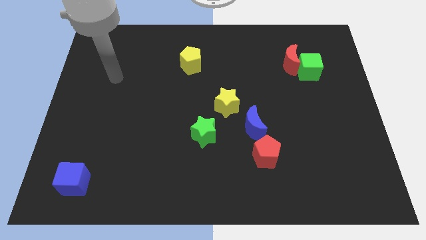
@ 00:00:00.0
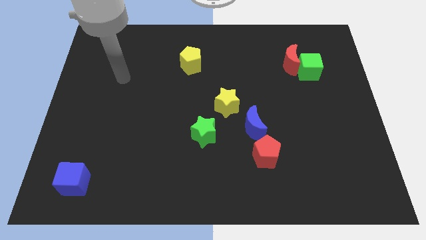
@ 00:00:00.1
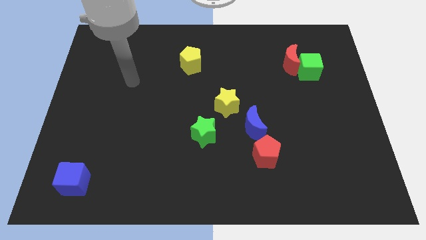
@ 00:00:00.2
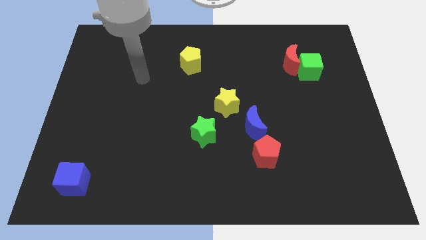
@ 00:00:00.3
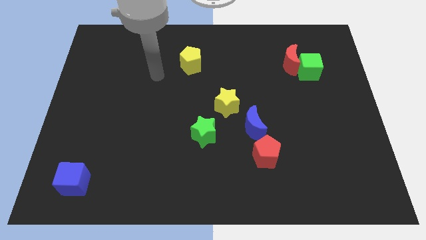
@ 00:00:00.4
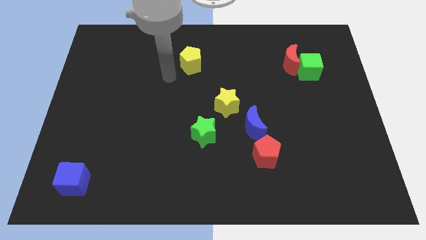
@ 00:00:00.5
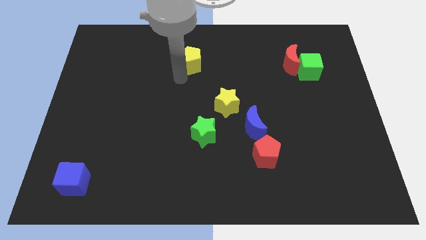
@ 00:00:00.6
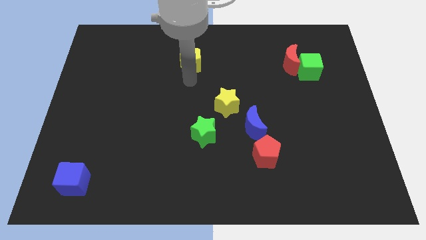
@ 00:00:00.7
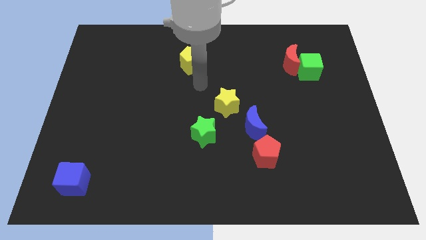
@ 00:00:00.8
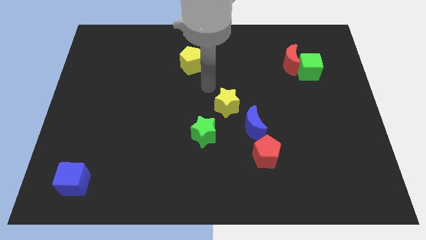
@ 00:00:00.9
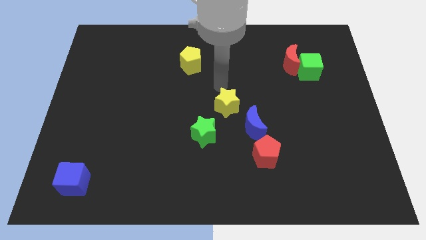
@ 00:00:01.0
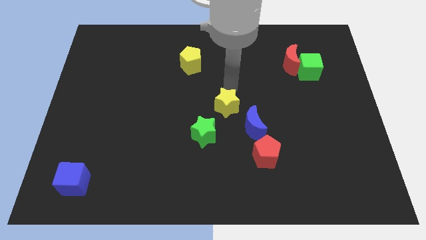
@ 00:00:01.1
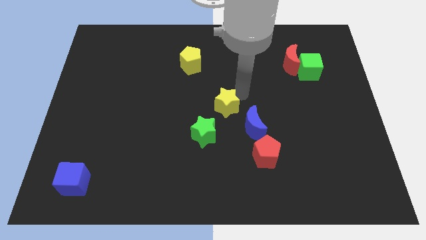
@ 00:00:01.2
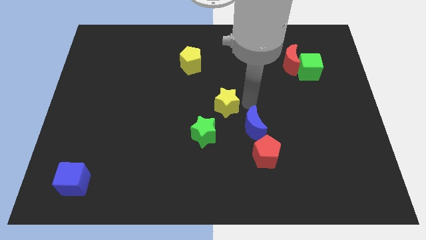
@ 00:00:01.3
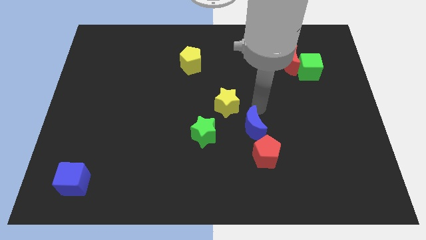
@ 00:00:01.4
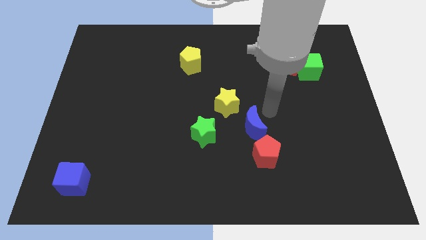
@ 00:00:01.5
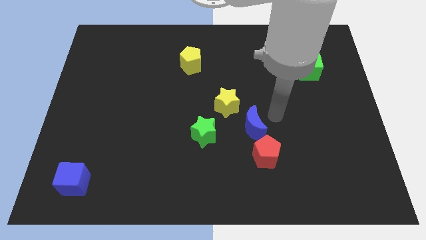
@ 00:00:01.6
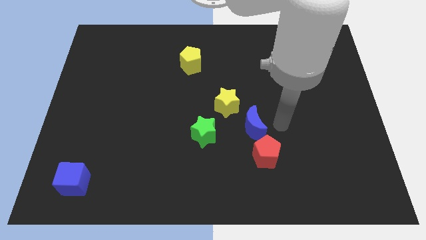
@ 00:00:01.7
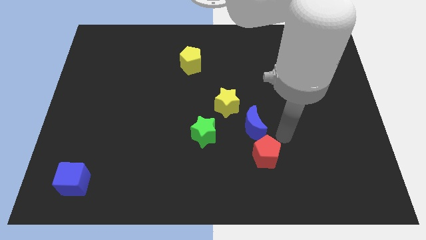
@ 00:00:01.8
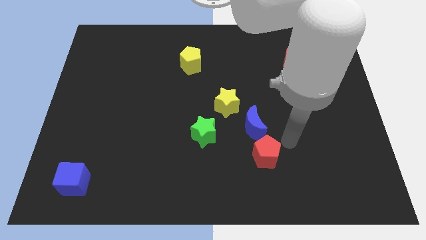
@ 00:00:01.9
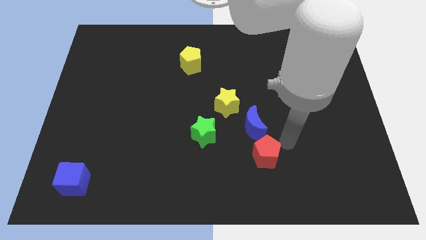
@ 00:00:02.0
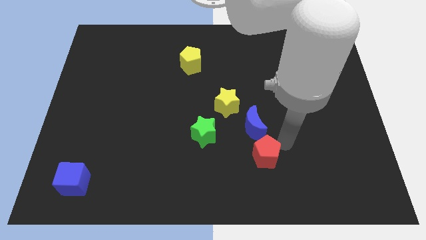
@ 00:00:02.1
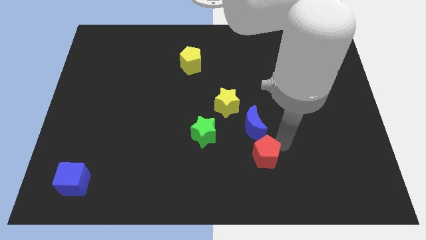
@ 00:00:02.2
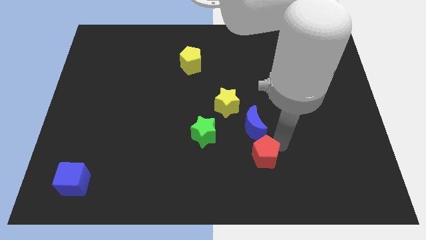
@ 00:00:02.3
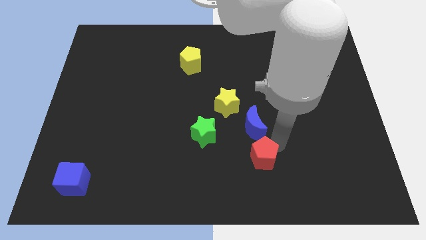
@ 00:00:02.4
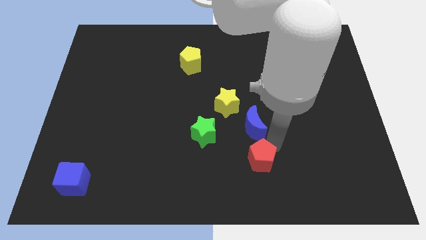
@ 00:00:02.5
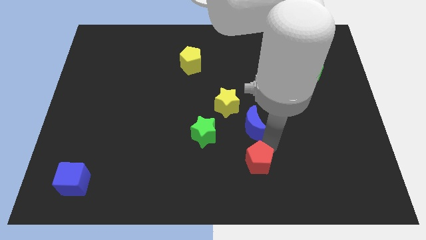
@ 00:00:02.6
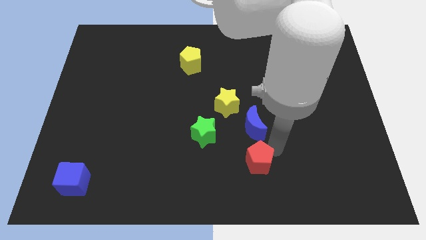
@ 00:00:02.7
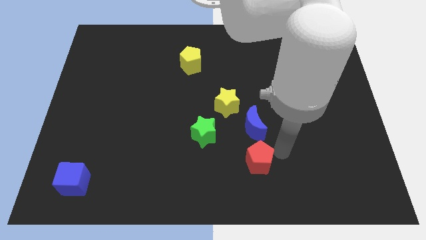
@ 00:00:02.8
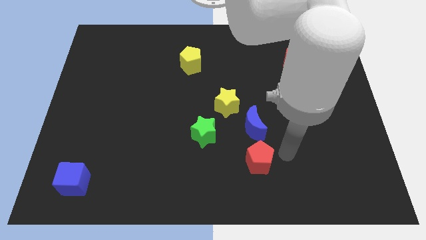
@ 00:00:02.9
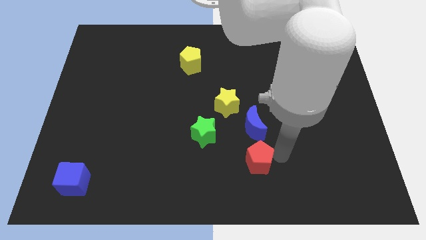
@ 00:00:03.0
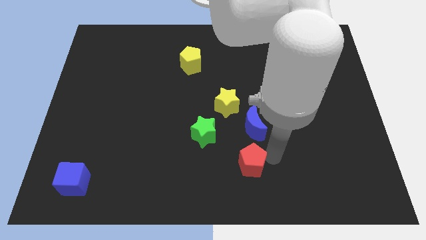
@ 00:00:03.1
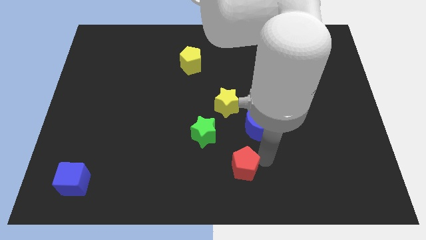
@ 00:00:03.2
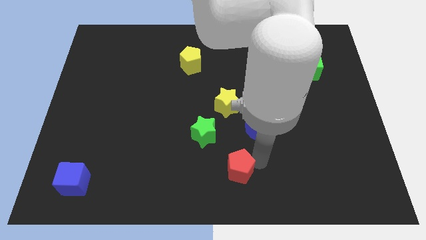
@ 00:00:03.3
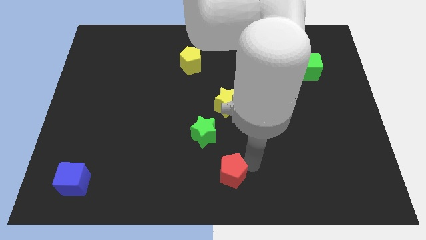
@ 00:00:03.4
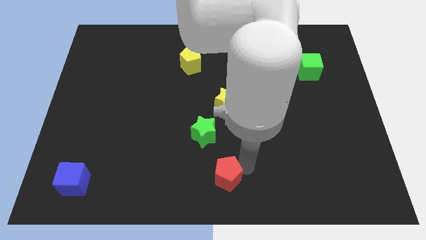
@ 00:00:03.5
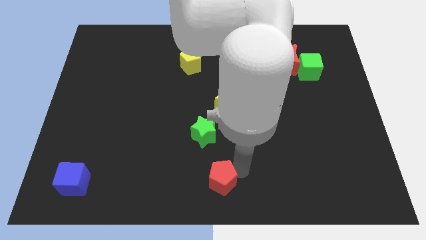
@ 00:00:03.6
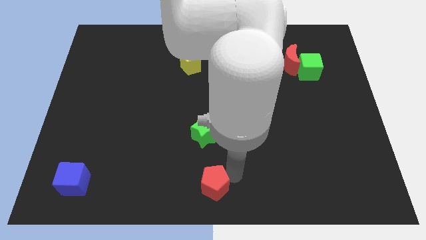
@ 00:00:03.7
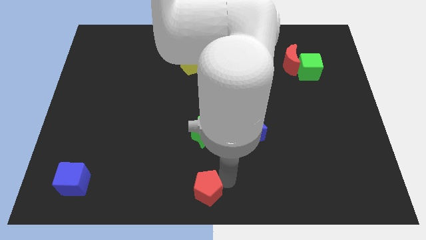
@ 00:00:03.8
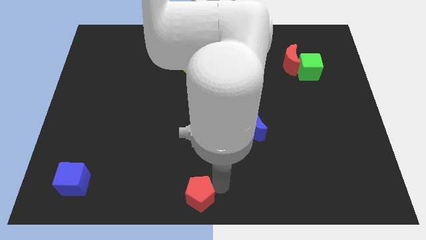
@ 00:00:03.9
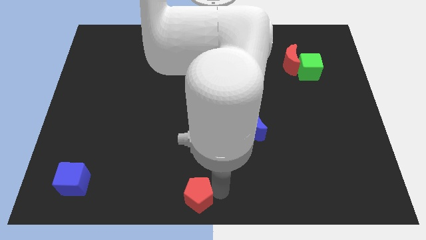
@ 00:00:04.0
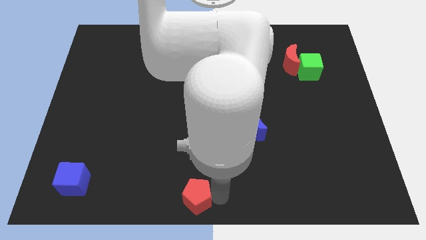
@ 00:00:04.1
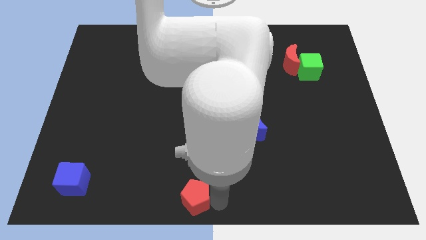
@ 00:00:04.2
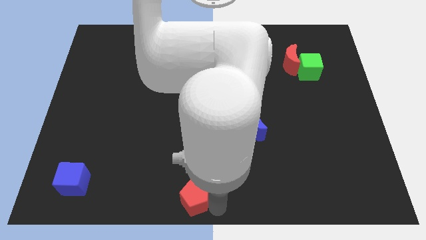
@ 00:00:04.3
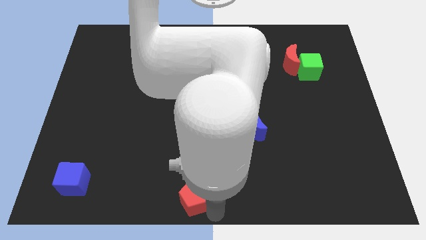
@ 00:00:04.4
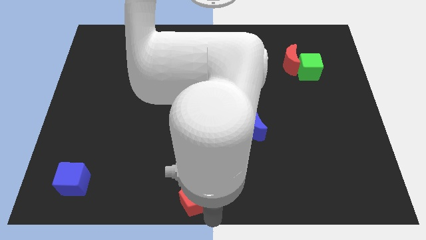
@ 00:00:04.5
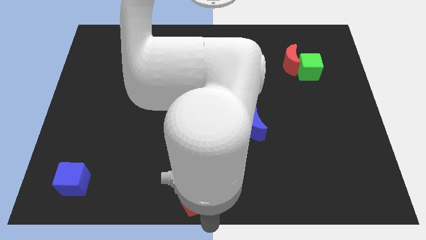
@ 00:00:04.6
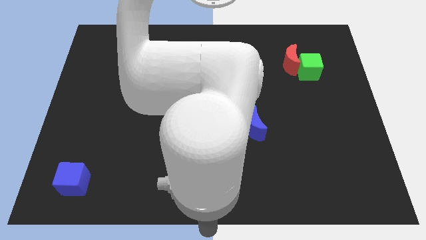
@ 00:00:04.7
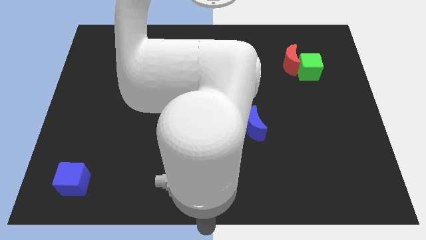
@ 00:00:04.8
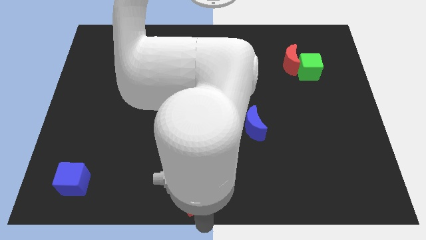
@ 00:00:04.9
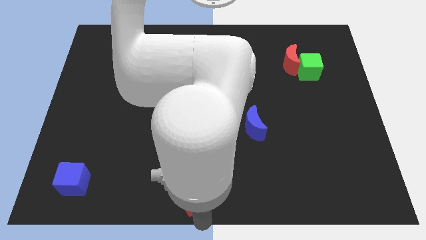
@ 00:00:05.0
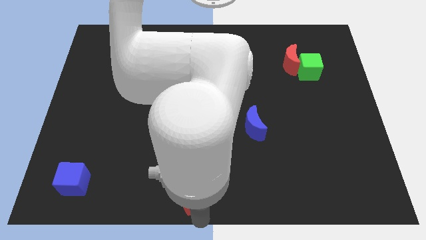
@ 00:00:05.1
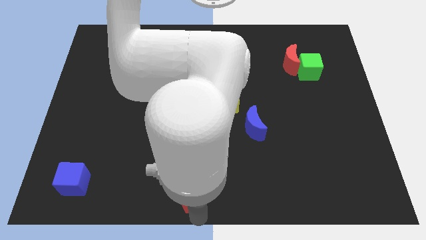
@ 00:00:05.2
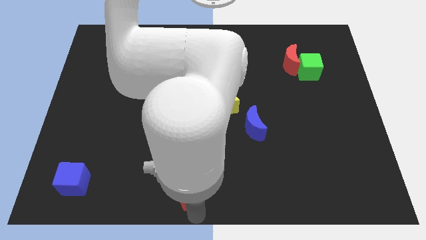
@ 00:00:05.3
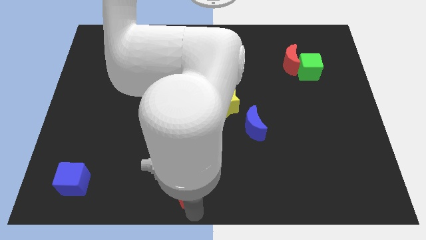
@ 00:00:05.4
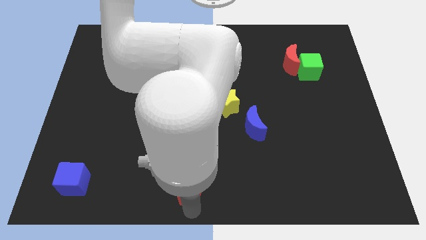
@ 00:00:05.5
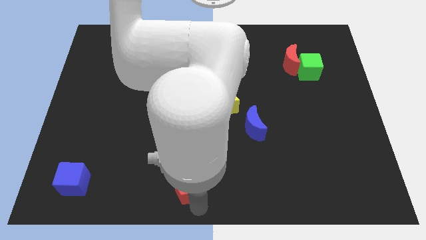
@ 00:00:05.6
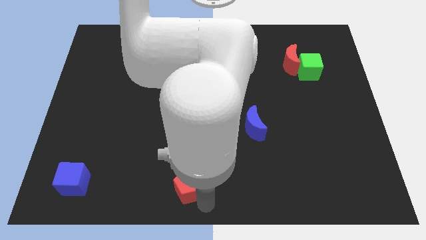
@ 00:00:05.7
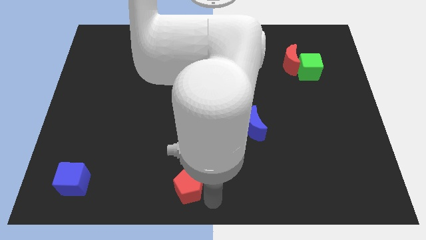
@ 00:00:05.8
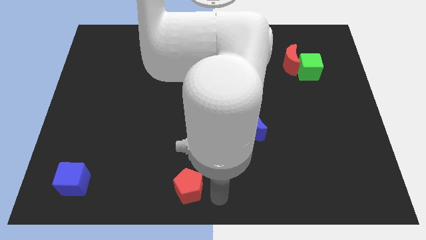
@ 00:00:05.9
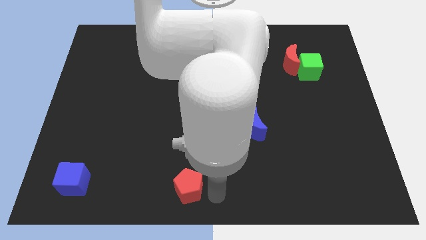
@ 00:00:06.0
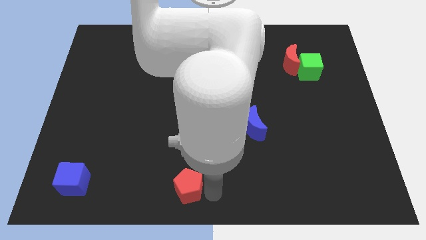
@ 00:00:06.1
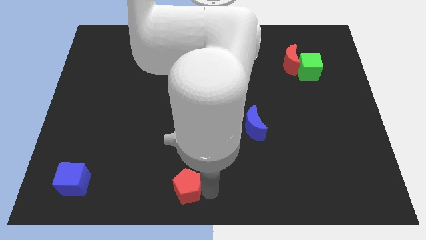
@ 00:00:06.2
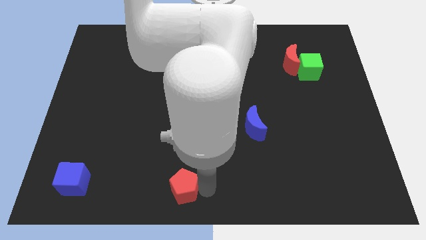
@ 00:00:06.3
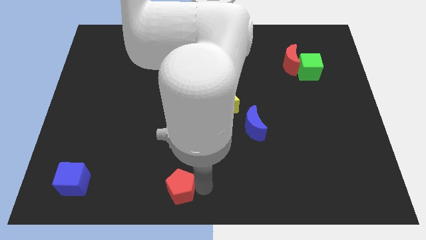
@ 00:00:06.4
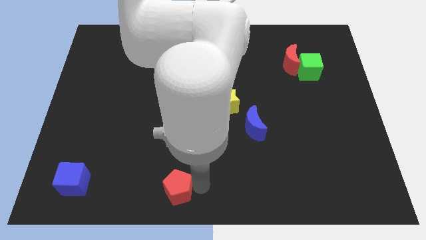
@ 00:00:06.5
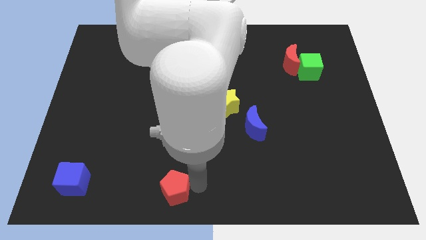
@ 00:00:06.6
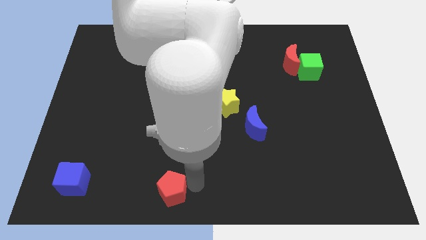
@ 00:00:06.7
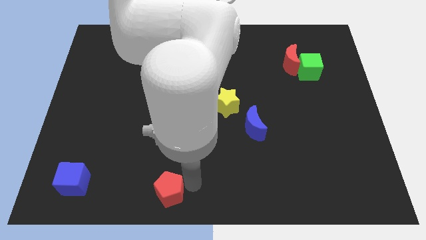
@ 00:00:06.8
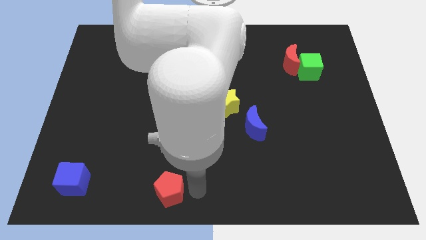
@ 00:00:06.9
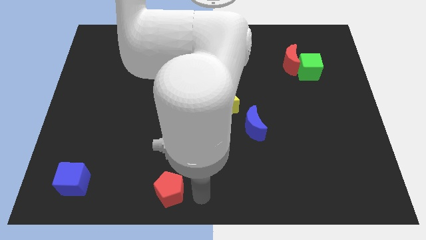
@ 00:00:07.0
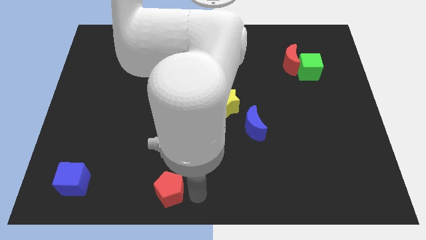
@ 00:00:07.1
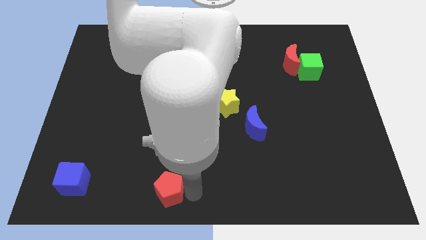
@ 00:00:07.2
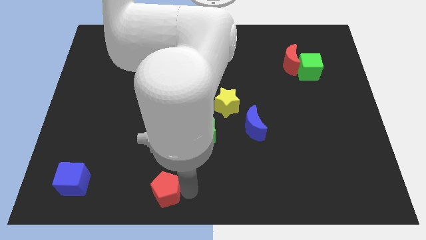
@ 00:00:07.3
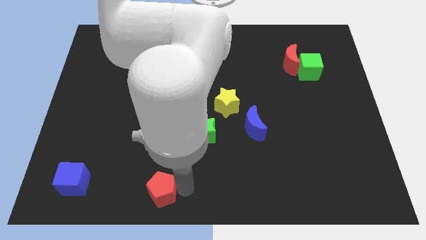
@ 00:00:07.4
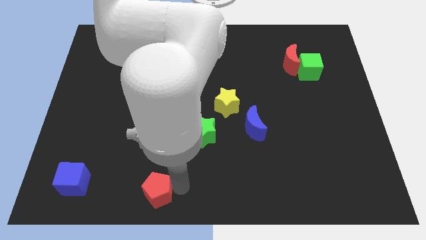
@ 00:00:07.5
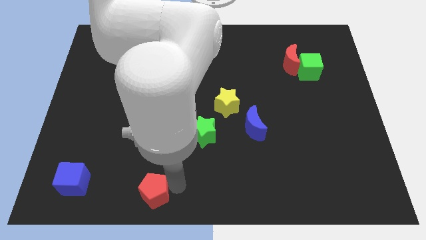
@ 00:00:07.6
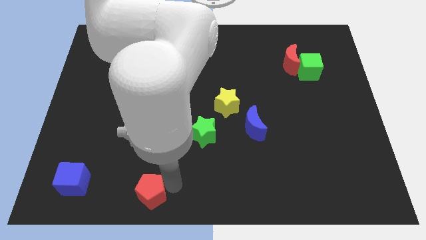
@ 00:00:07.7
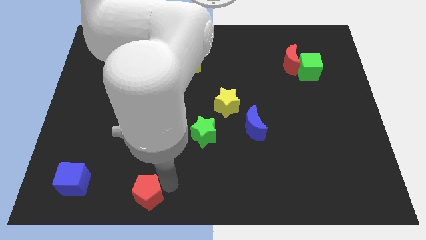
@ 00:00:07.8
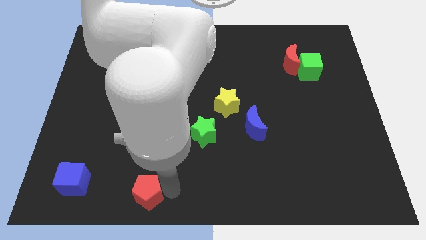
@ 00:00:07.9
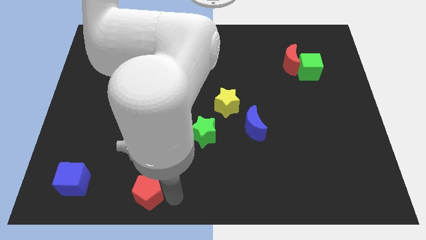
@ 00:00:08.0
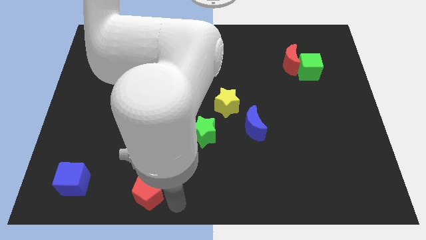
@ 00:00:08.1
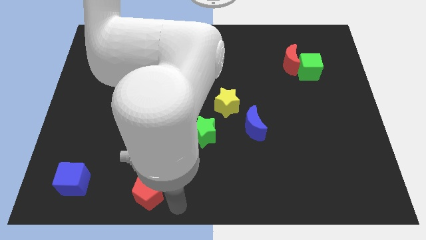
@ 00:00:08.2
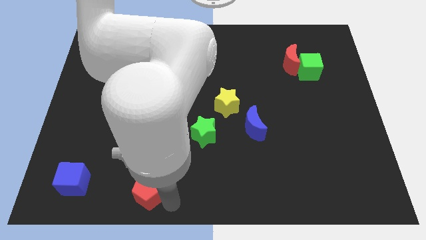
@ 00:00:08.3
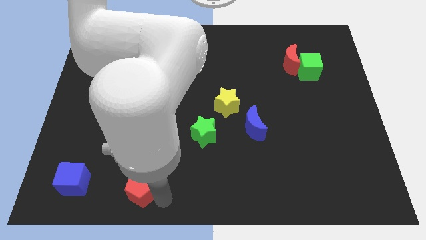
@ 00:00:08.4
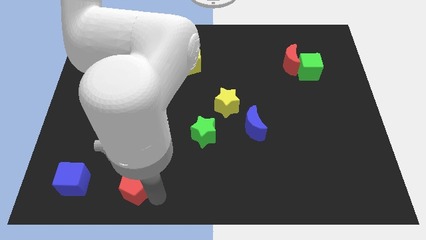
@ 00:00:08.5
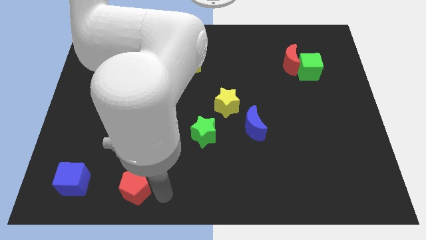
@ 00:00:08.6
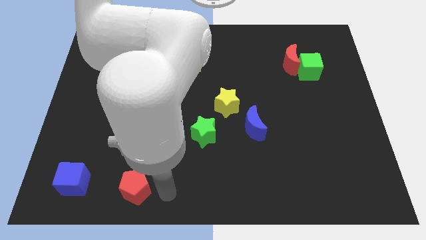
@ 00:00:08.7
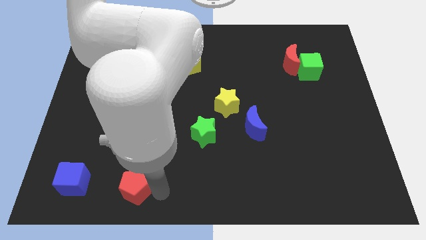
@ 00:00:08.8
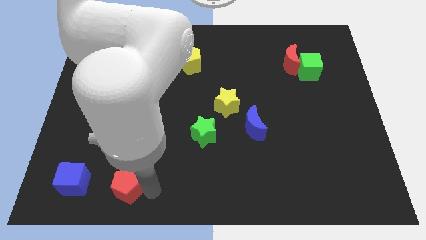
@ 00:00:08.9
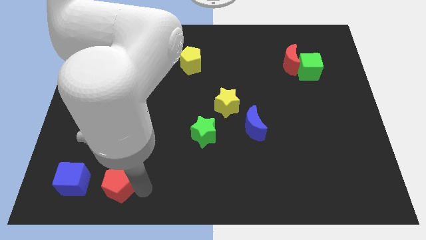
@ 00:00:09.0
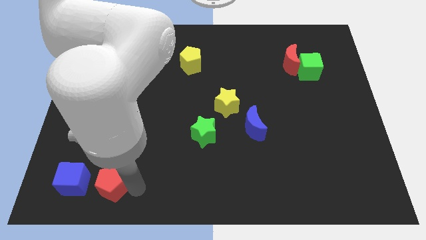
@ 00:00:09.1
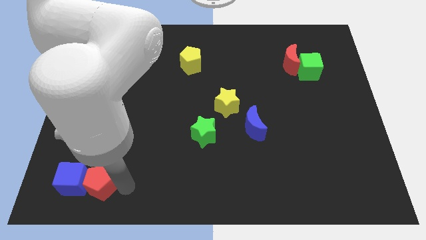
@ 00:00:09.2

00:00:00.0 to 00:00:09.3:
move the red pentagon close to the blue cube
